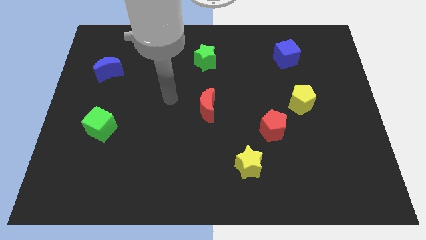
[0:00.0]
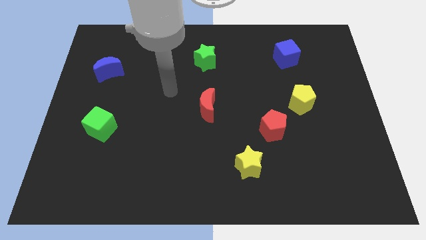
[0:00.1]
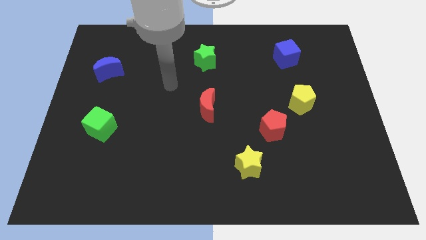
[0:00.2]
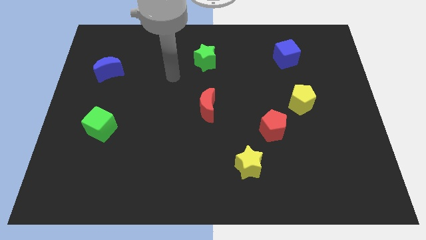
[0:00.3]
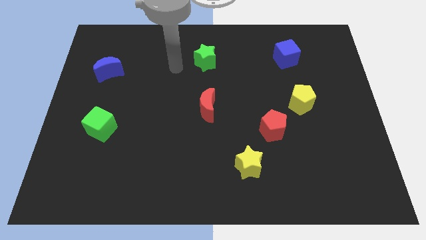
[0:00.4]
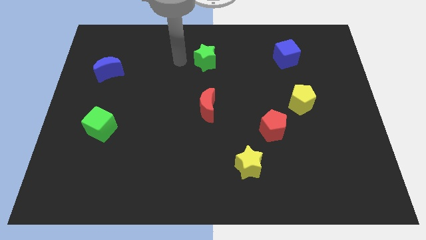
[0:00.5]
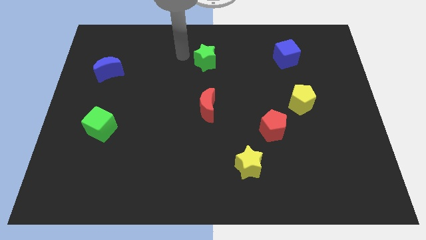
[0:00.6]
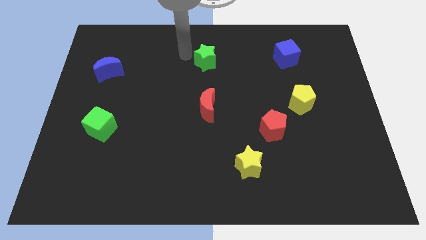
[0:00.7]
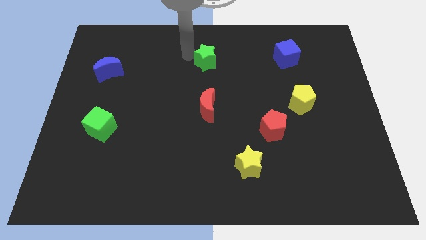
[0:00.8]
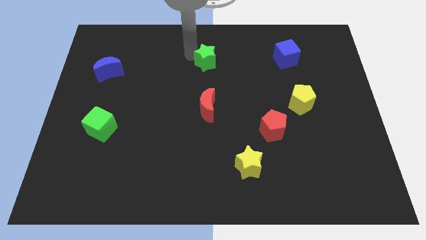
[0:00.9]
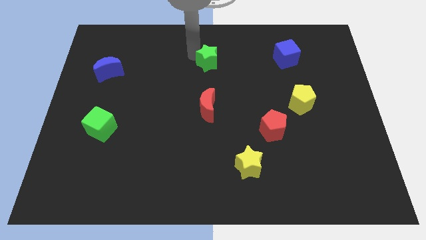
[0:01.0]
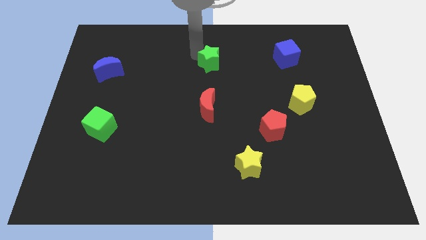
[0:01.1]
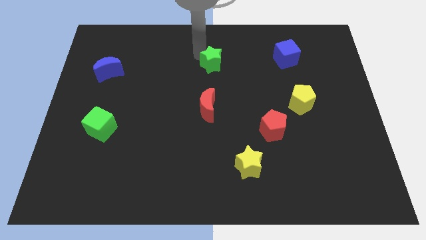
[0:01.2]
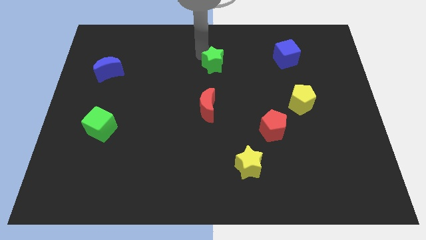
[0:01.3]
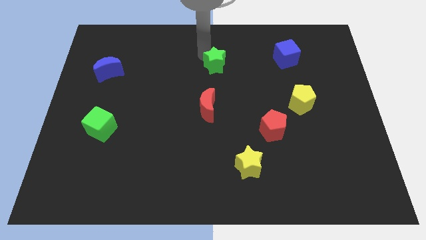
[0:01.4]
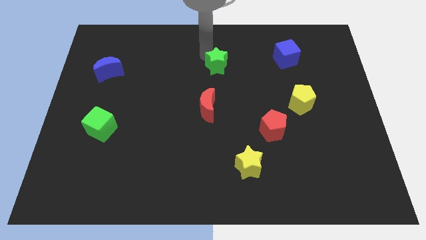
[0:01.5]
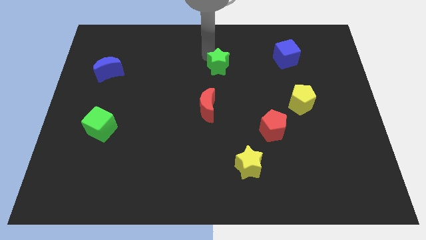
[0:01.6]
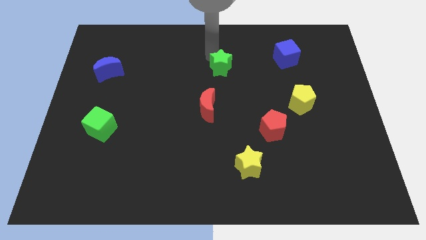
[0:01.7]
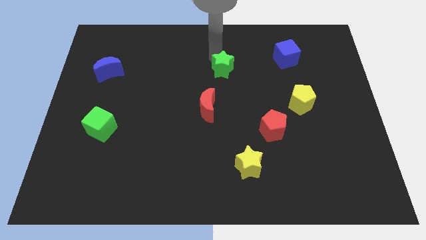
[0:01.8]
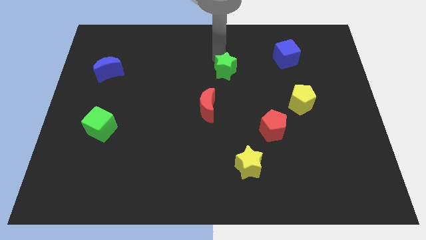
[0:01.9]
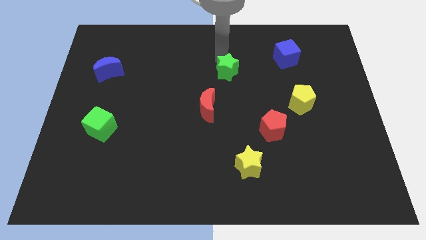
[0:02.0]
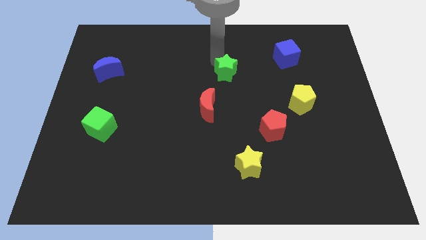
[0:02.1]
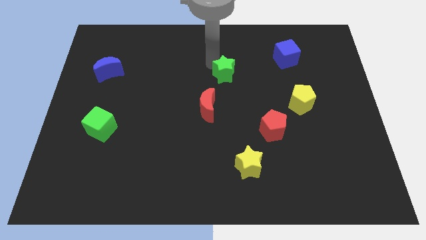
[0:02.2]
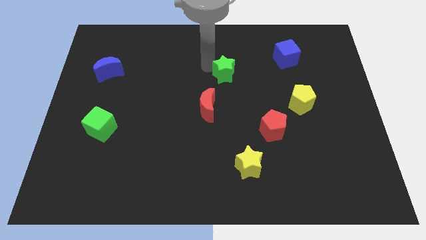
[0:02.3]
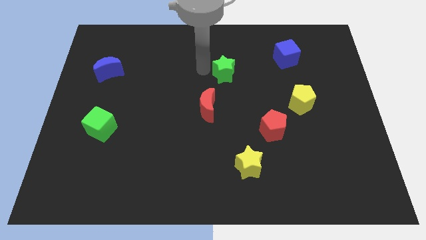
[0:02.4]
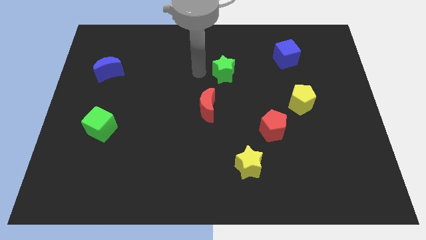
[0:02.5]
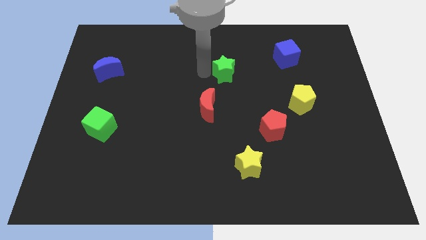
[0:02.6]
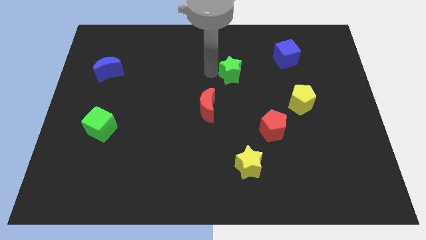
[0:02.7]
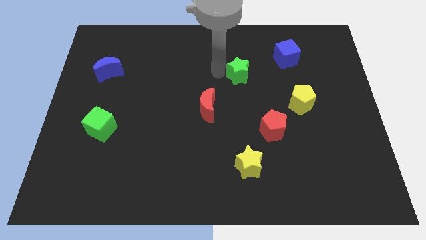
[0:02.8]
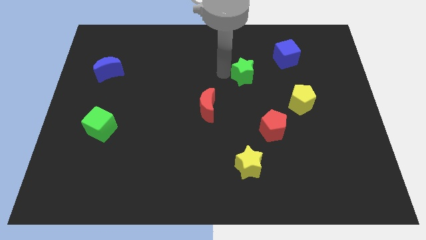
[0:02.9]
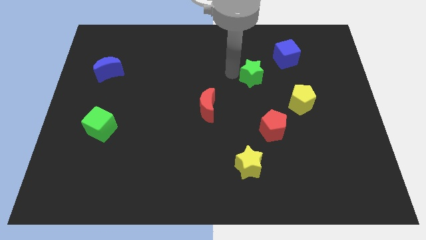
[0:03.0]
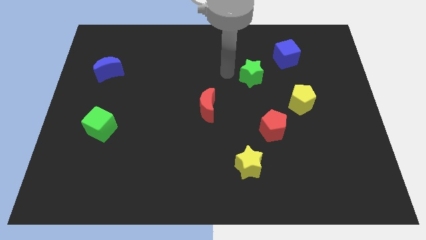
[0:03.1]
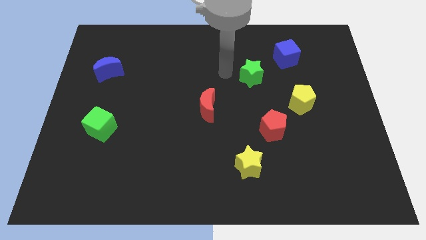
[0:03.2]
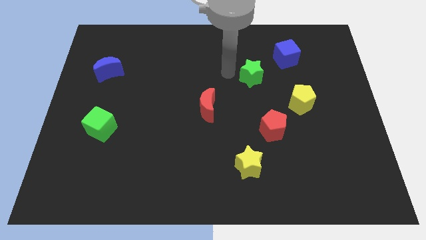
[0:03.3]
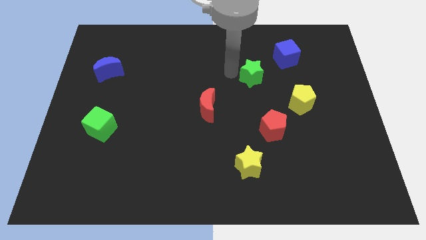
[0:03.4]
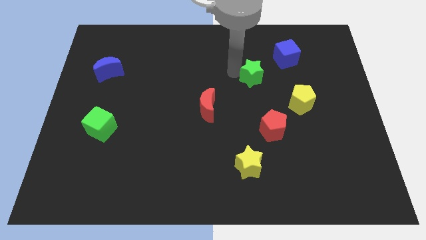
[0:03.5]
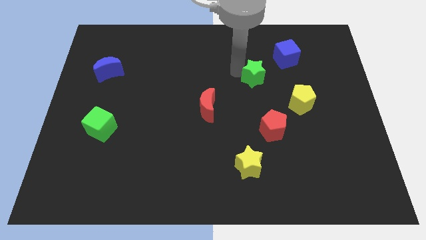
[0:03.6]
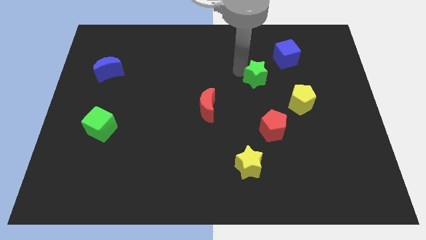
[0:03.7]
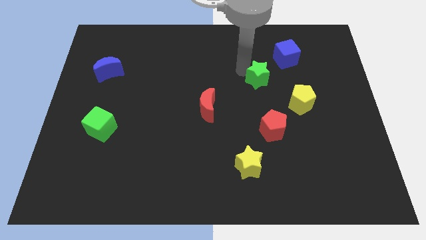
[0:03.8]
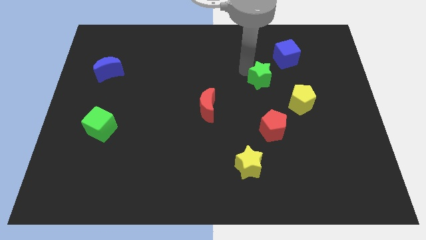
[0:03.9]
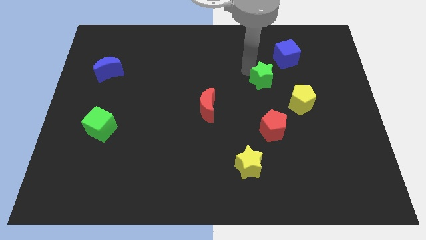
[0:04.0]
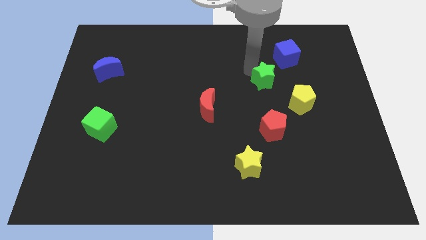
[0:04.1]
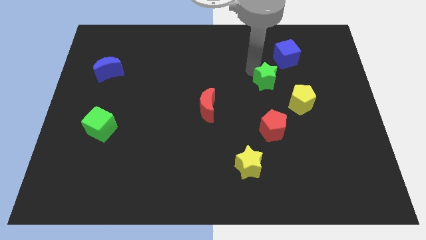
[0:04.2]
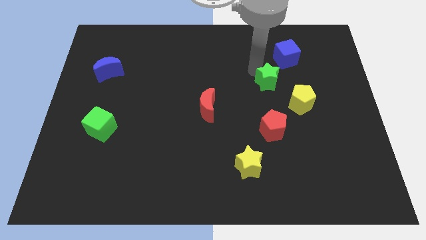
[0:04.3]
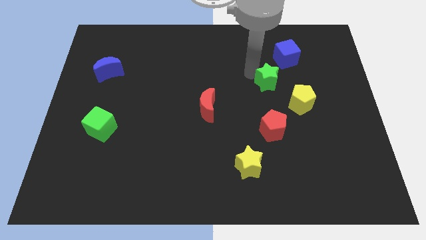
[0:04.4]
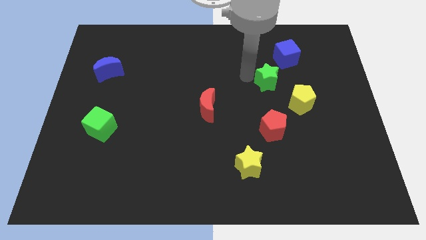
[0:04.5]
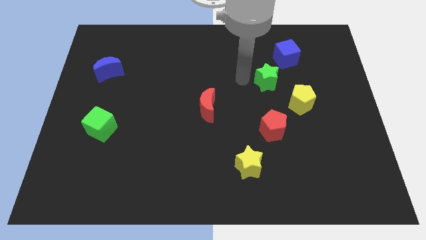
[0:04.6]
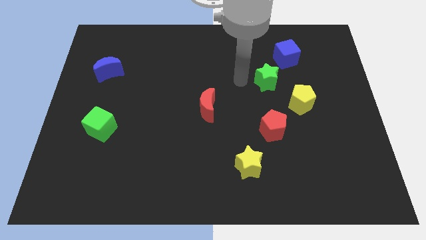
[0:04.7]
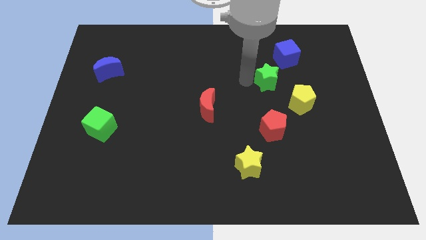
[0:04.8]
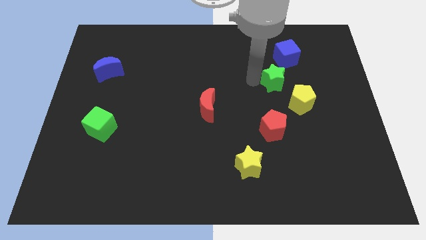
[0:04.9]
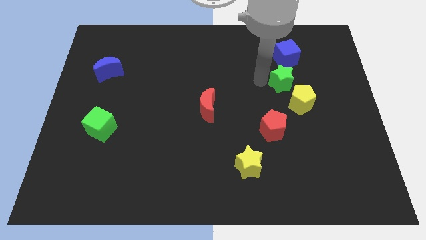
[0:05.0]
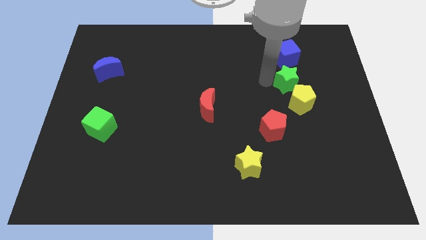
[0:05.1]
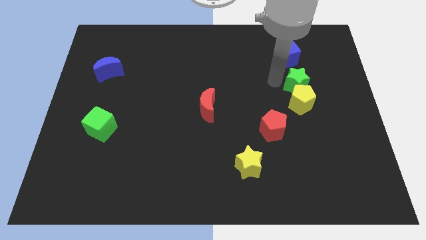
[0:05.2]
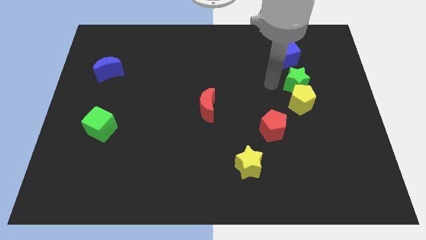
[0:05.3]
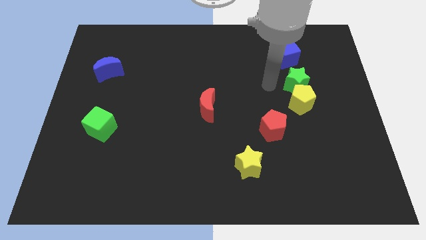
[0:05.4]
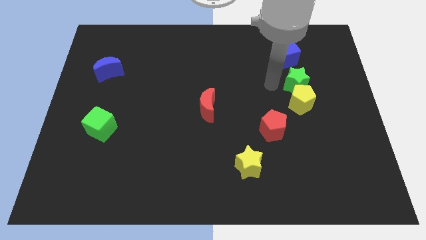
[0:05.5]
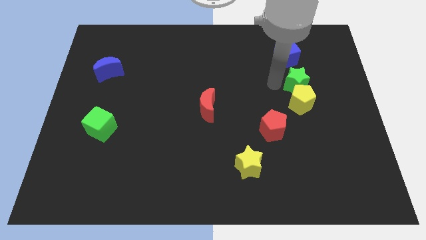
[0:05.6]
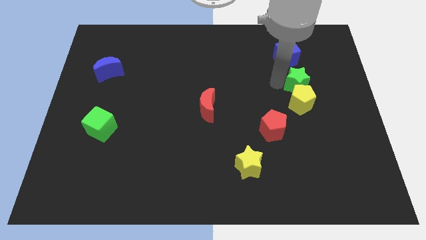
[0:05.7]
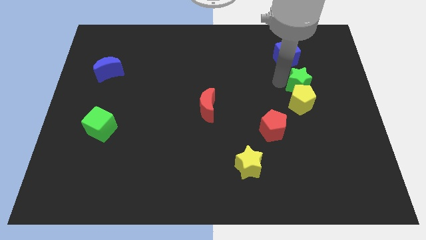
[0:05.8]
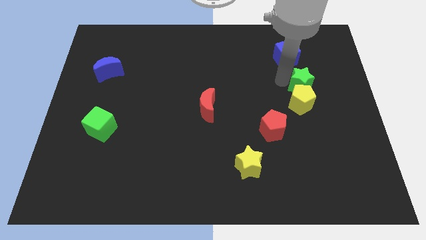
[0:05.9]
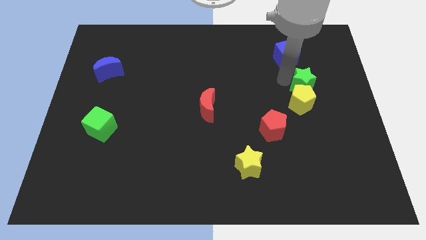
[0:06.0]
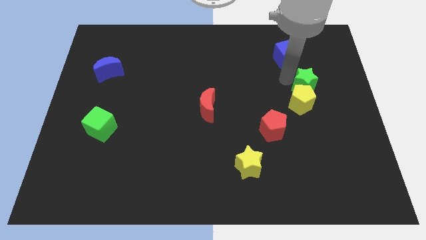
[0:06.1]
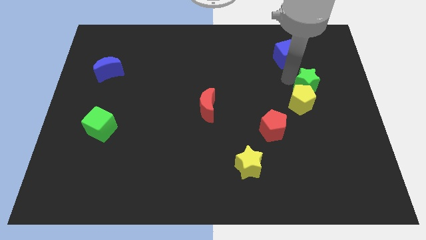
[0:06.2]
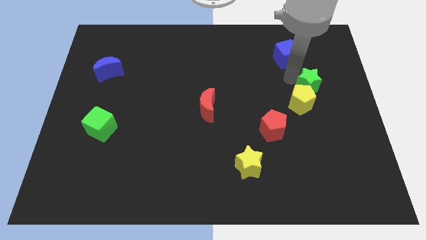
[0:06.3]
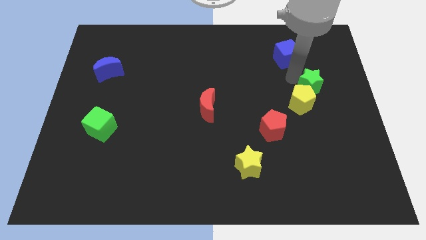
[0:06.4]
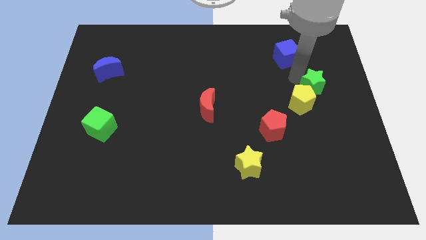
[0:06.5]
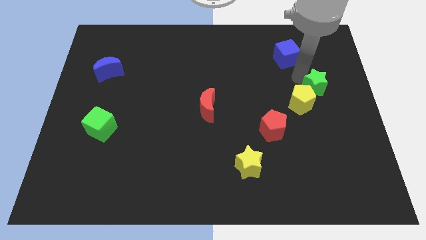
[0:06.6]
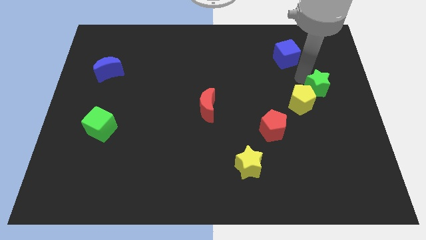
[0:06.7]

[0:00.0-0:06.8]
push the green star to the right side
